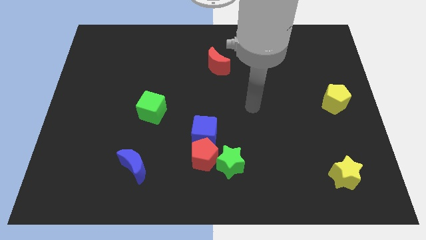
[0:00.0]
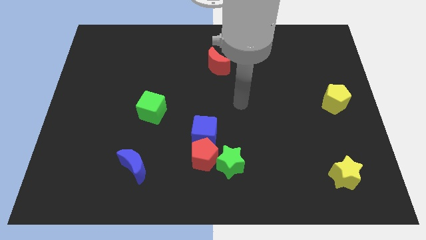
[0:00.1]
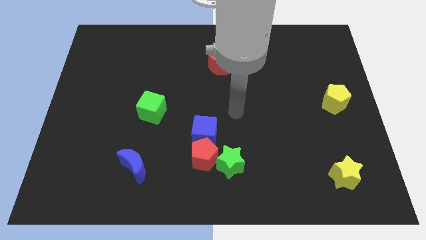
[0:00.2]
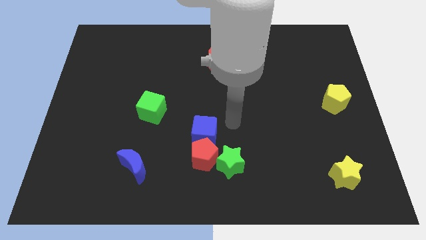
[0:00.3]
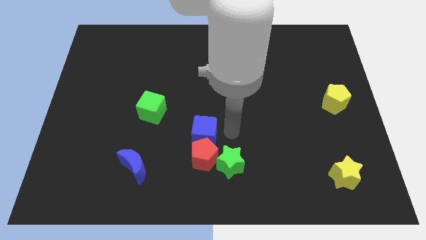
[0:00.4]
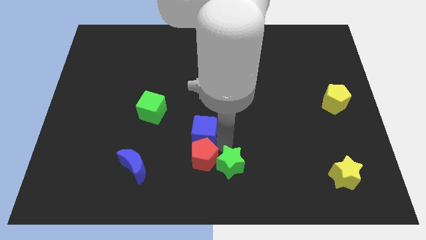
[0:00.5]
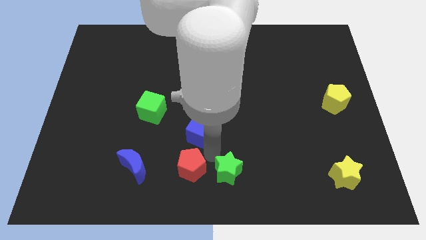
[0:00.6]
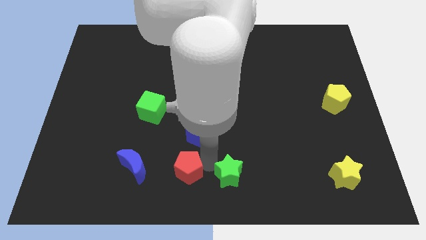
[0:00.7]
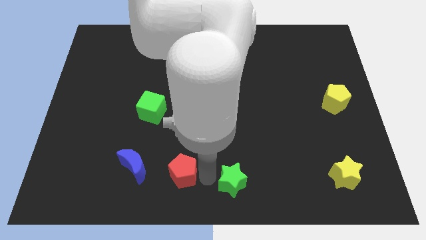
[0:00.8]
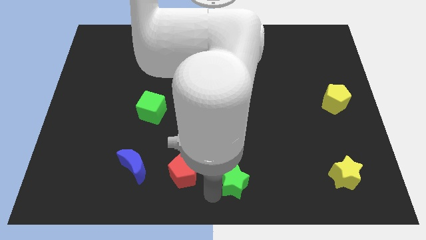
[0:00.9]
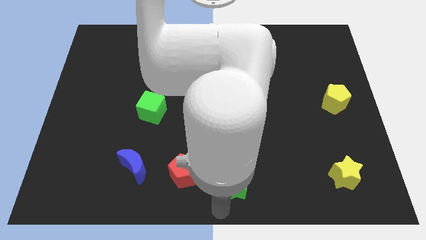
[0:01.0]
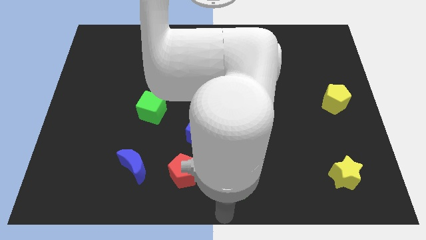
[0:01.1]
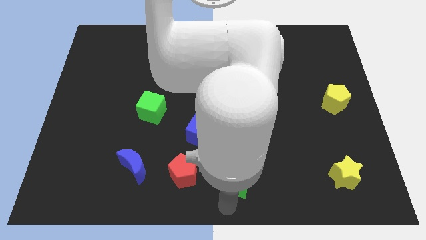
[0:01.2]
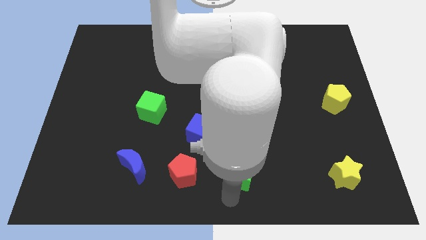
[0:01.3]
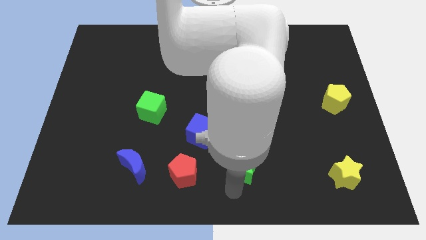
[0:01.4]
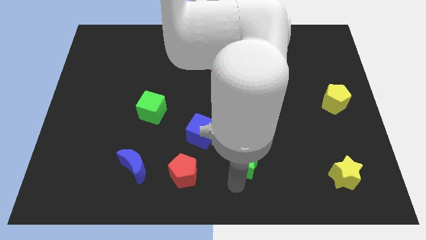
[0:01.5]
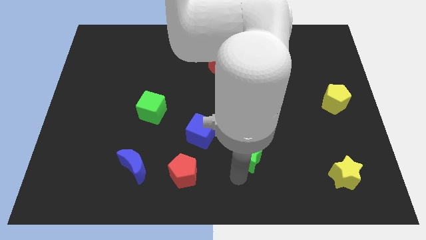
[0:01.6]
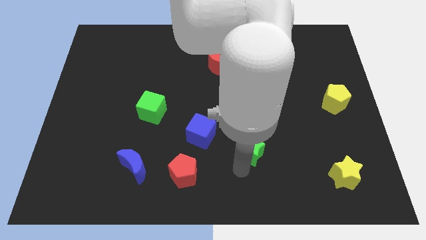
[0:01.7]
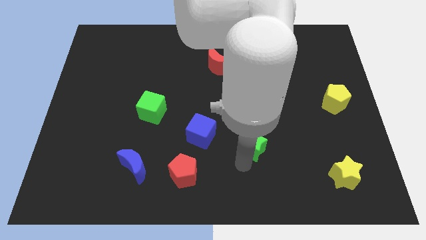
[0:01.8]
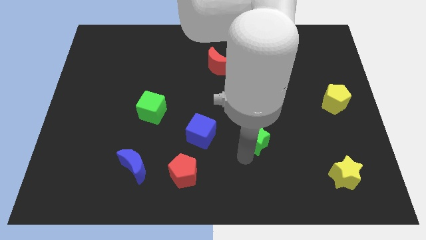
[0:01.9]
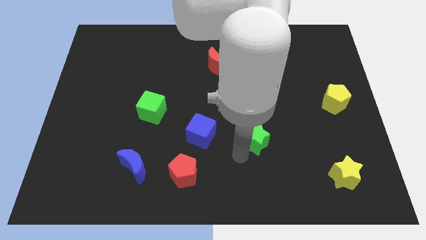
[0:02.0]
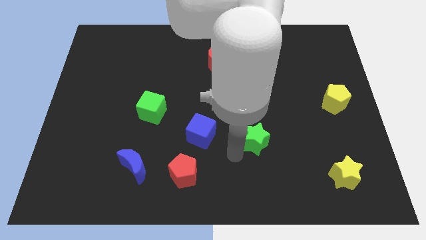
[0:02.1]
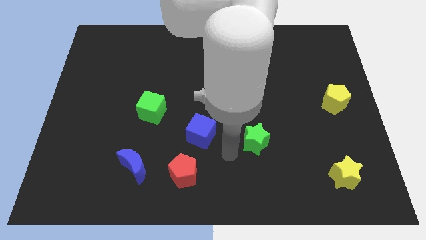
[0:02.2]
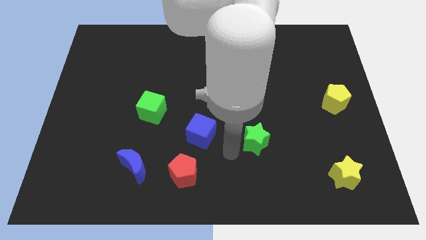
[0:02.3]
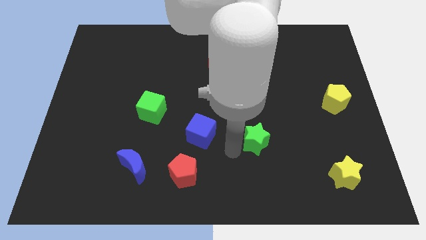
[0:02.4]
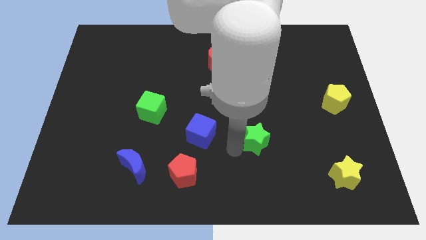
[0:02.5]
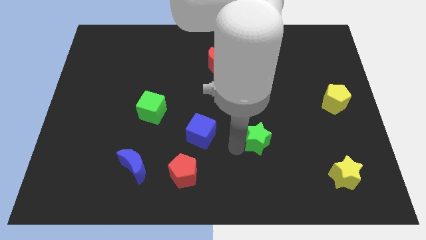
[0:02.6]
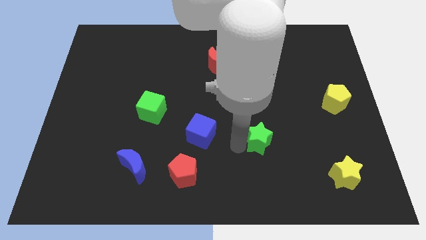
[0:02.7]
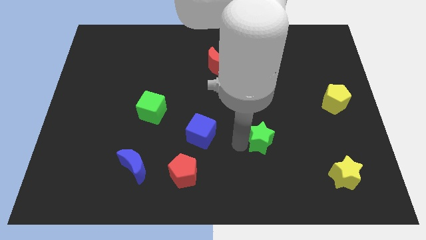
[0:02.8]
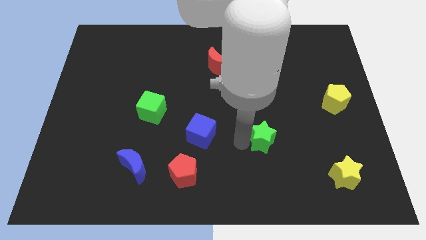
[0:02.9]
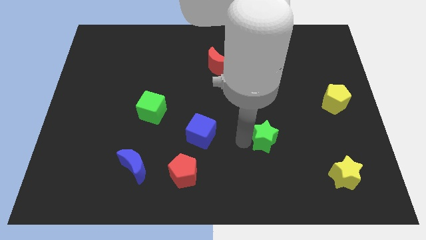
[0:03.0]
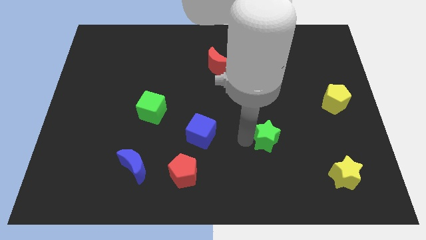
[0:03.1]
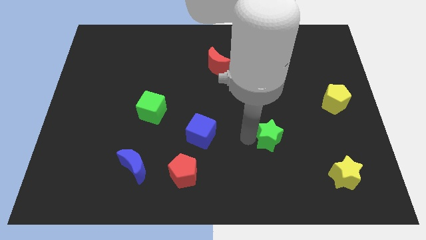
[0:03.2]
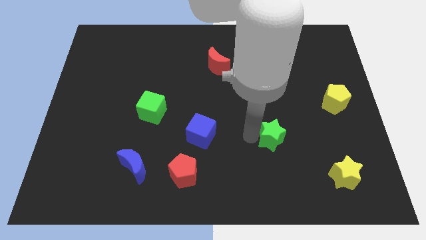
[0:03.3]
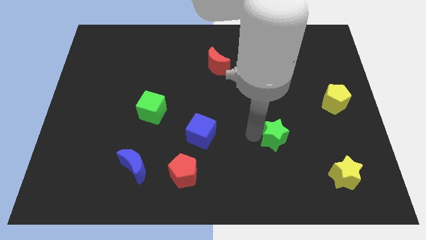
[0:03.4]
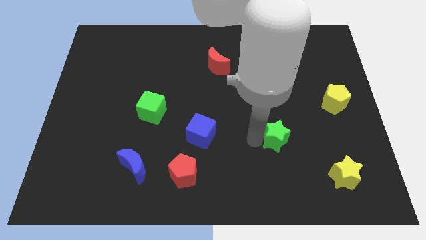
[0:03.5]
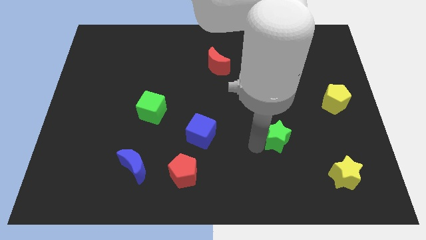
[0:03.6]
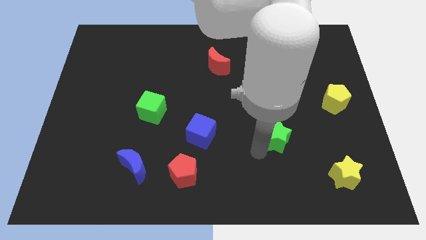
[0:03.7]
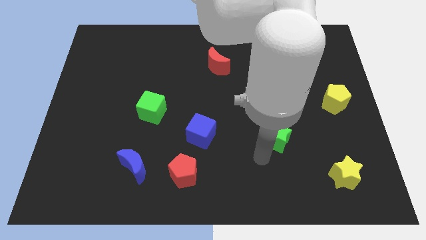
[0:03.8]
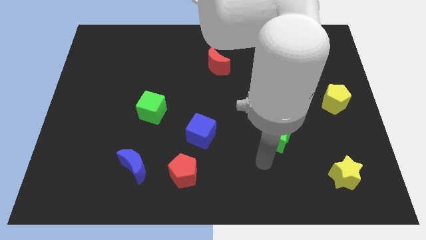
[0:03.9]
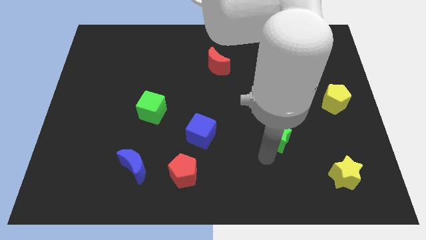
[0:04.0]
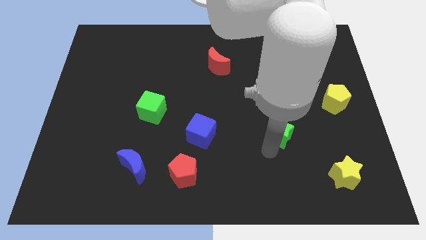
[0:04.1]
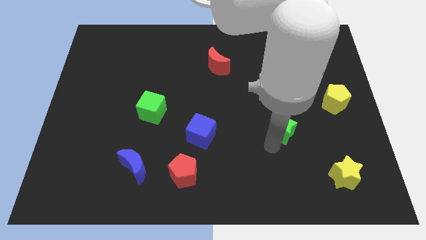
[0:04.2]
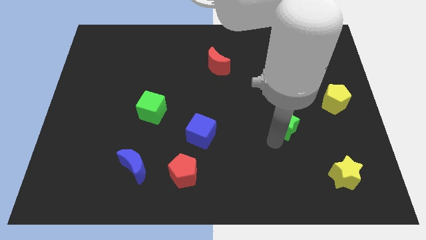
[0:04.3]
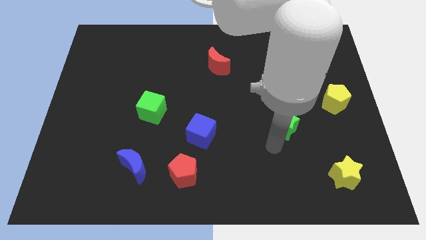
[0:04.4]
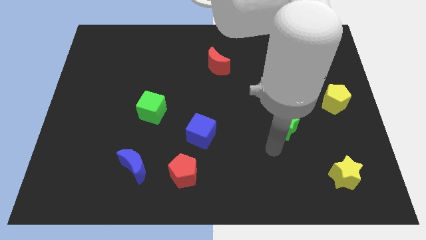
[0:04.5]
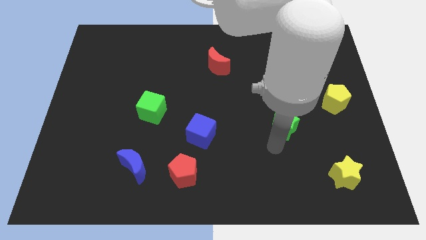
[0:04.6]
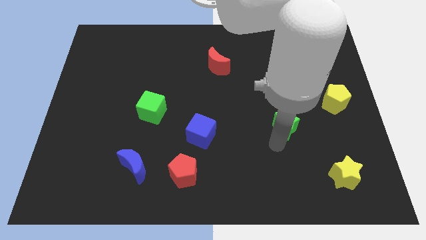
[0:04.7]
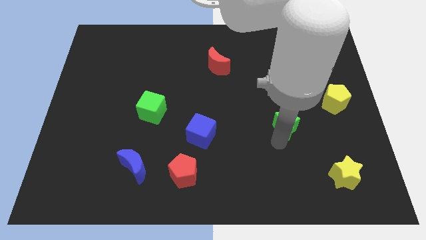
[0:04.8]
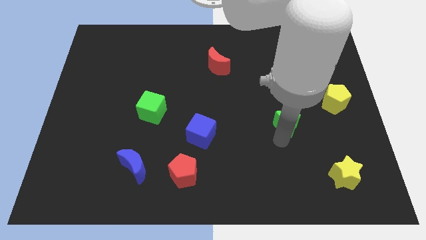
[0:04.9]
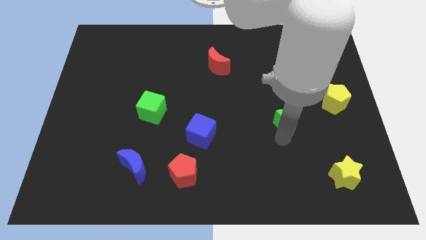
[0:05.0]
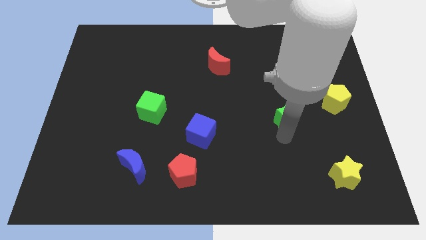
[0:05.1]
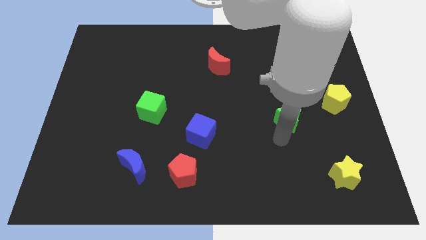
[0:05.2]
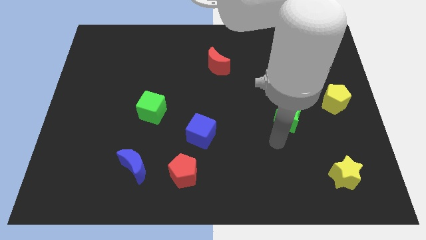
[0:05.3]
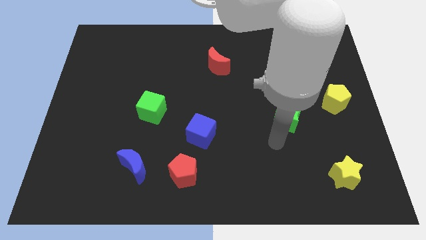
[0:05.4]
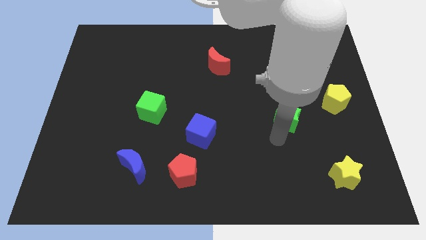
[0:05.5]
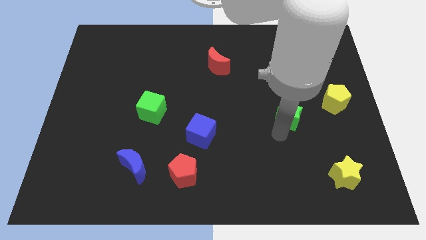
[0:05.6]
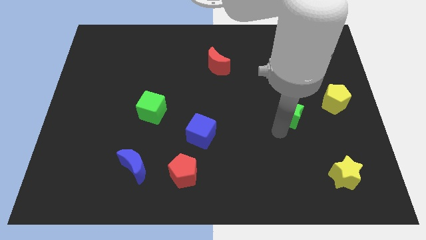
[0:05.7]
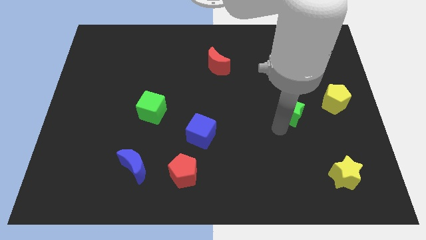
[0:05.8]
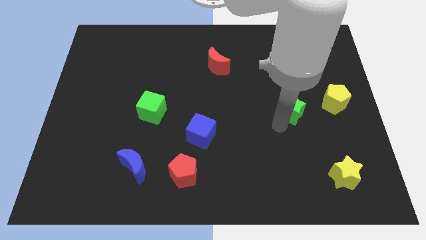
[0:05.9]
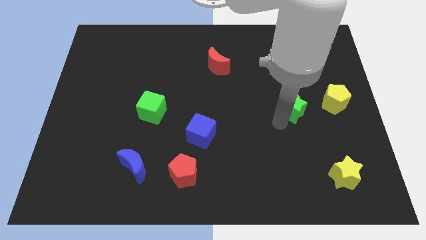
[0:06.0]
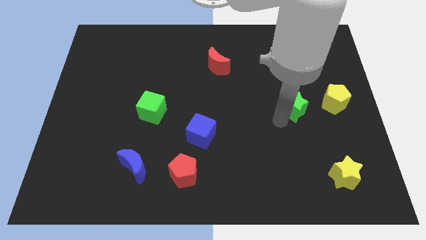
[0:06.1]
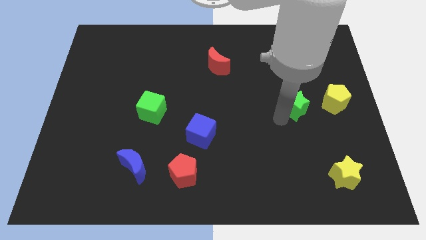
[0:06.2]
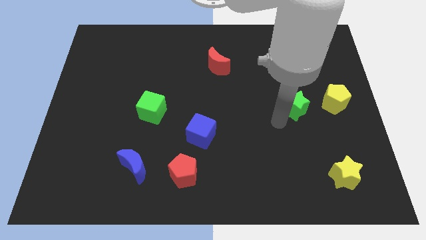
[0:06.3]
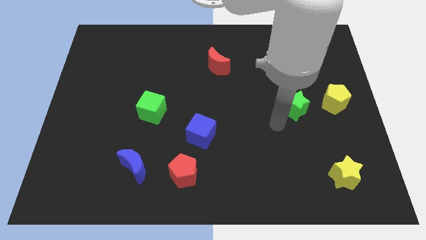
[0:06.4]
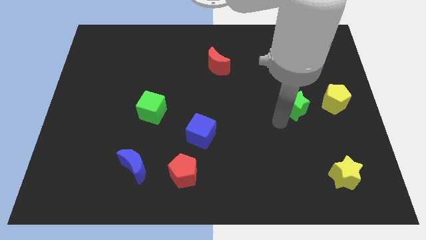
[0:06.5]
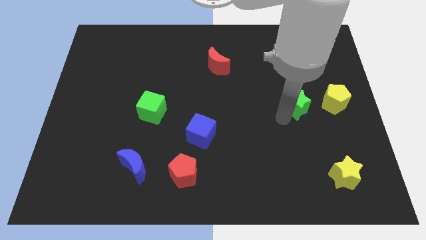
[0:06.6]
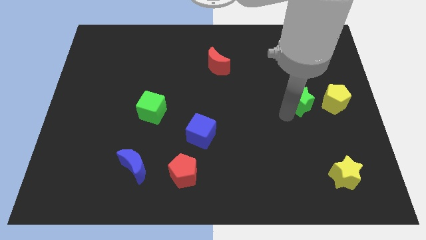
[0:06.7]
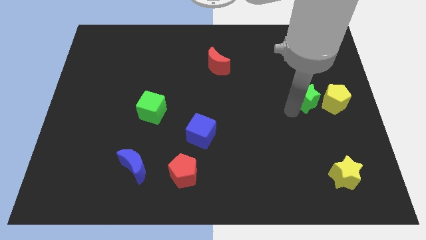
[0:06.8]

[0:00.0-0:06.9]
push the green star diagonally up and to the left of the yellow pentagon
